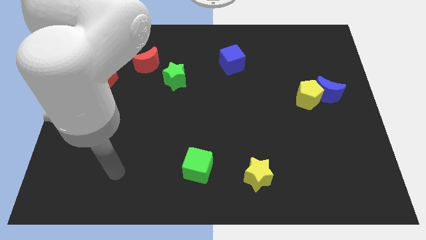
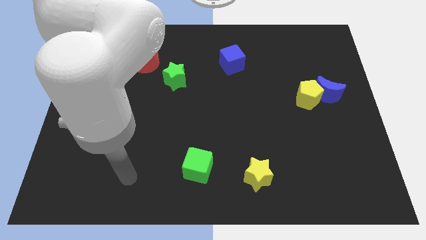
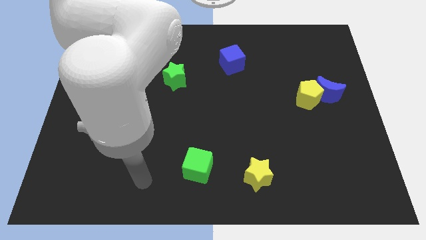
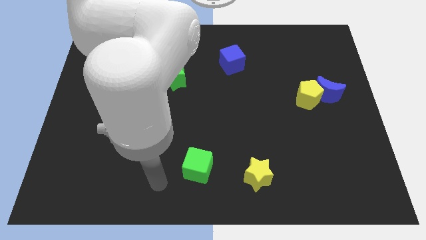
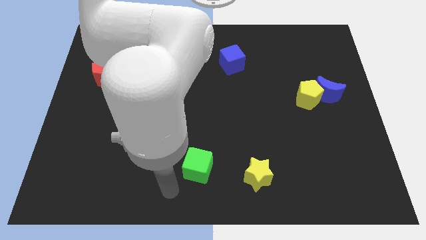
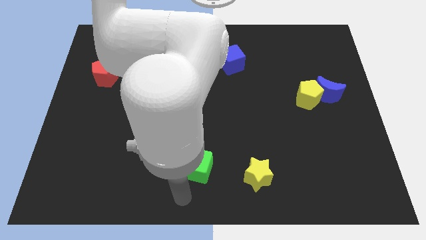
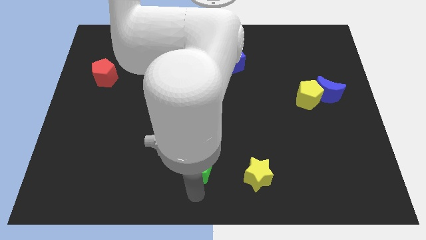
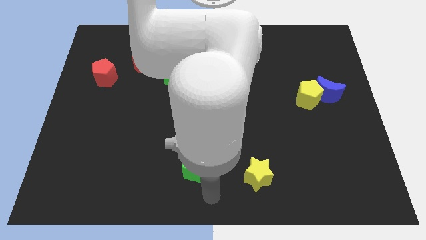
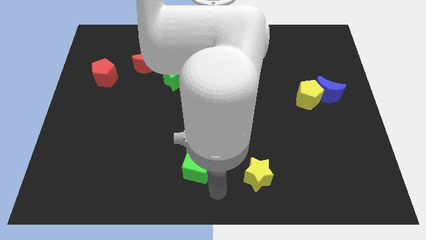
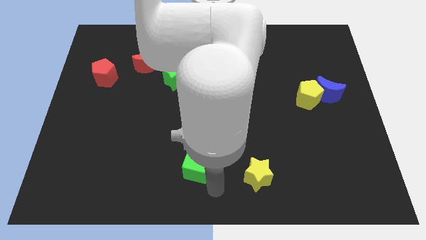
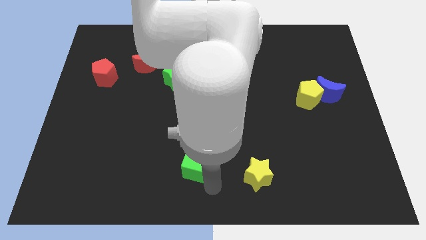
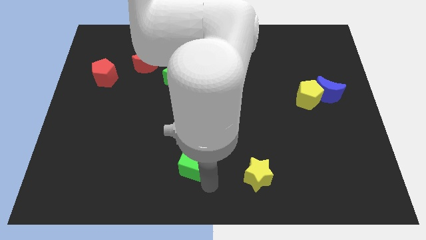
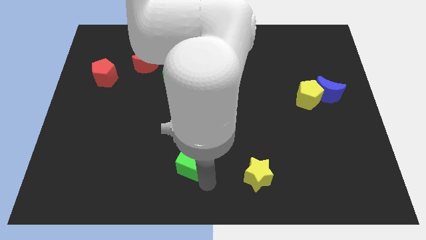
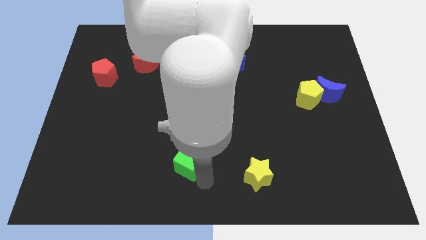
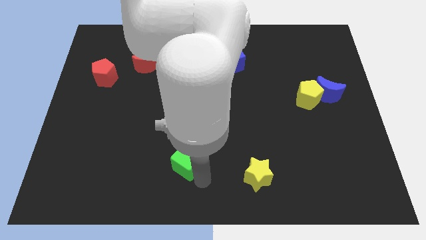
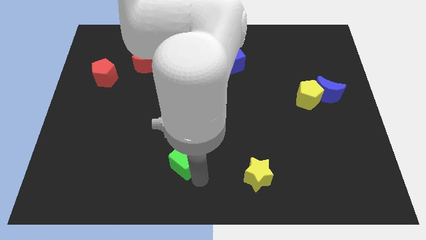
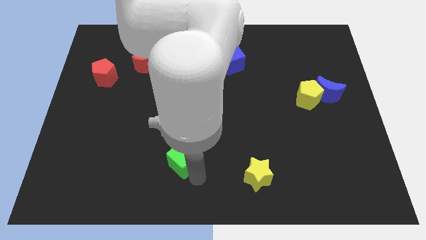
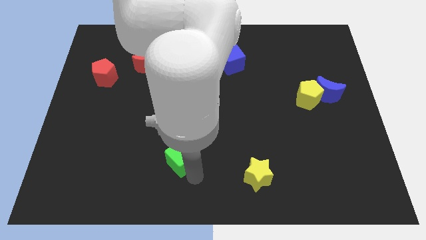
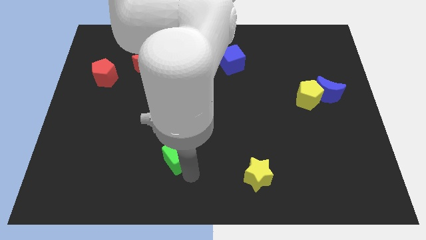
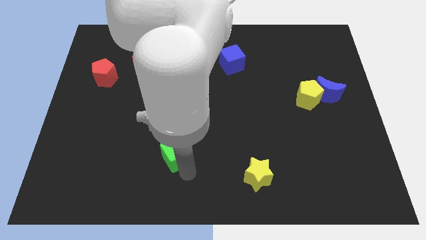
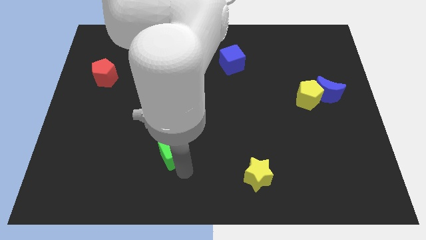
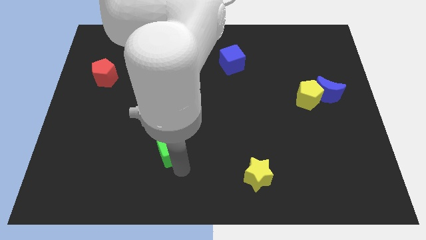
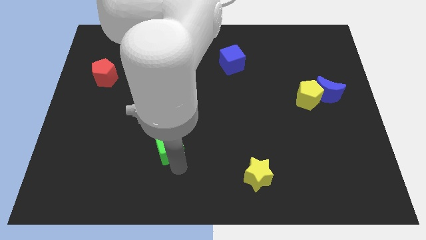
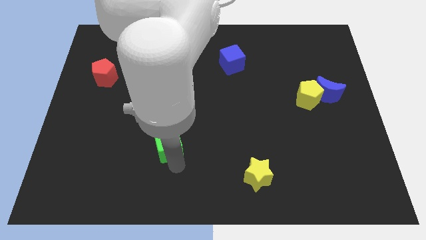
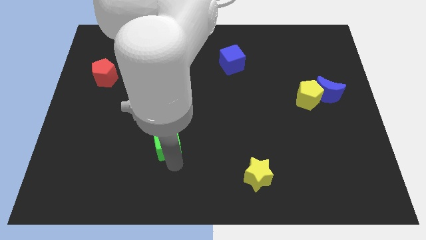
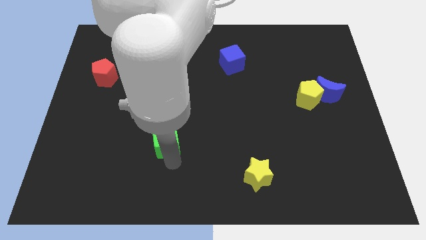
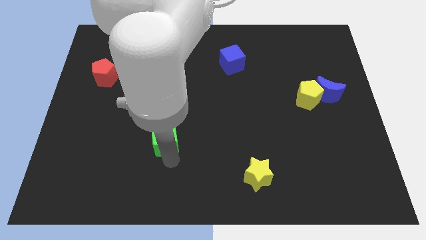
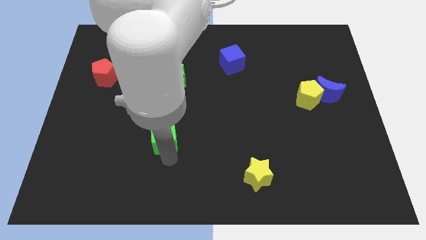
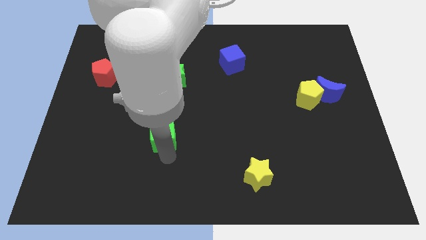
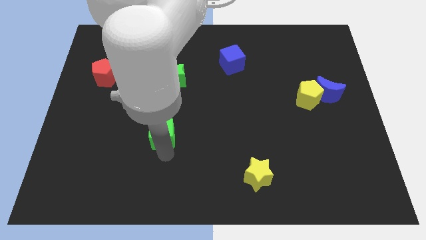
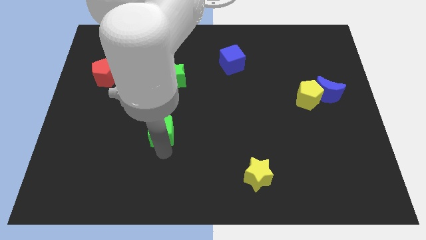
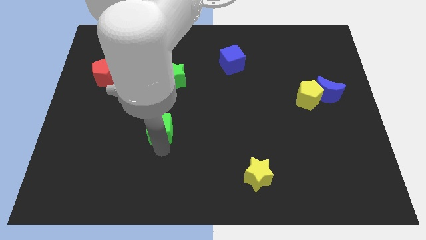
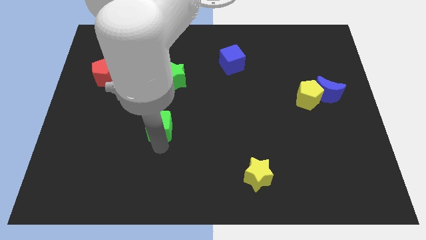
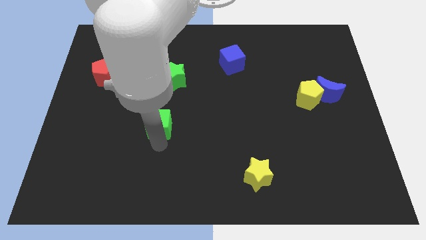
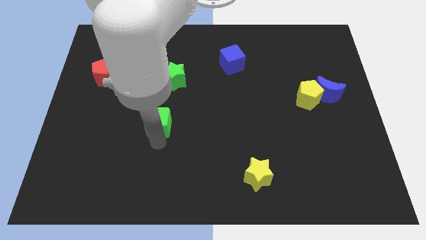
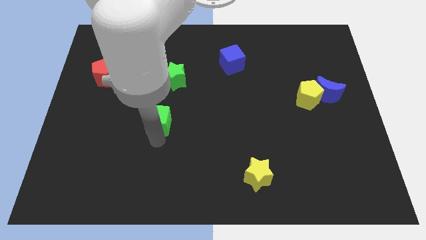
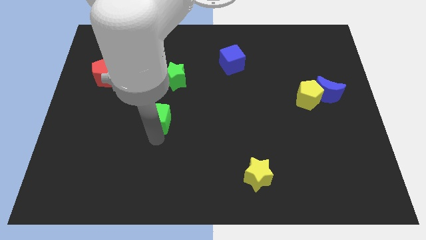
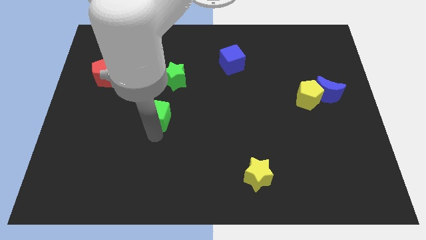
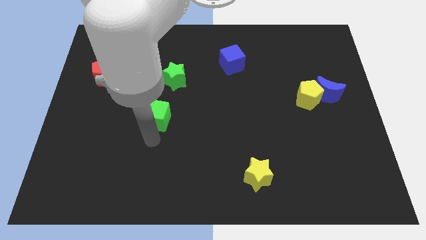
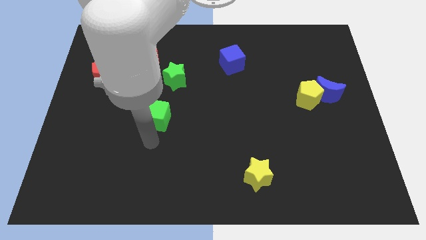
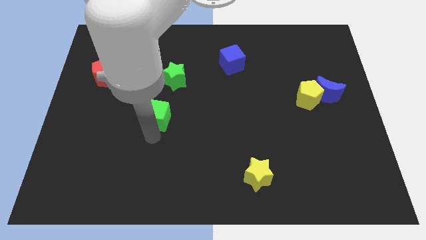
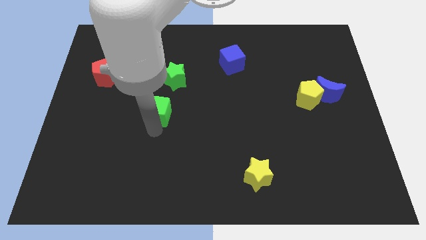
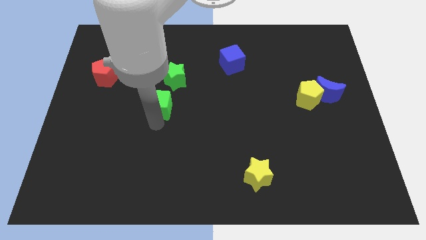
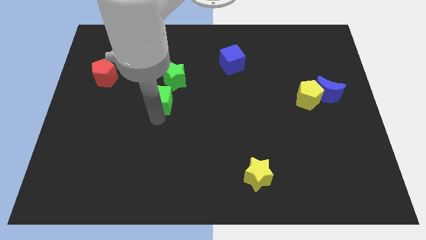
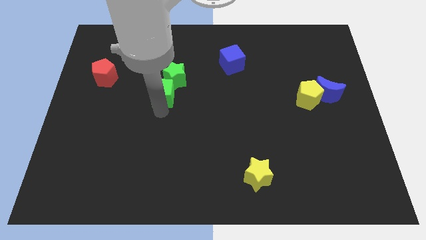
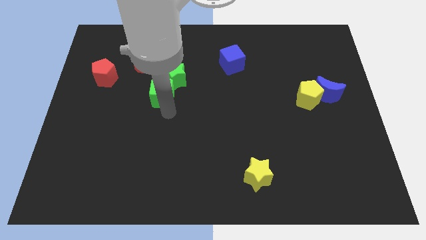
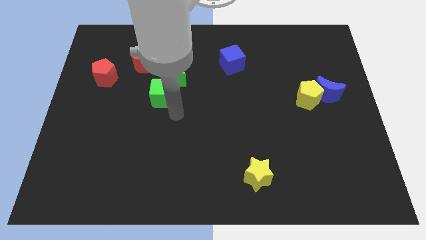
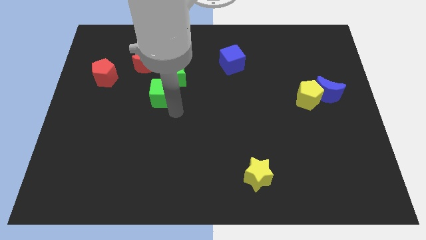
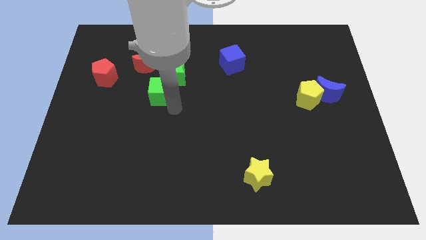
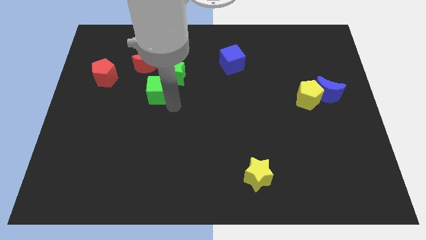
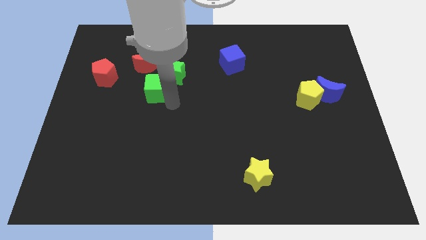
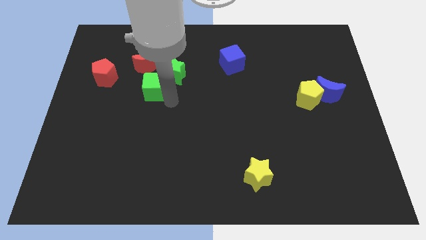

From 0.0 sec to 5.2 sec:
slide the green cube just right of the red pentagon

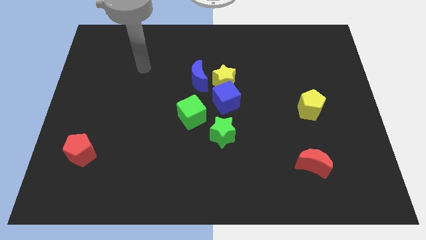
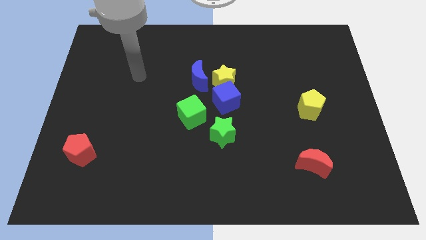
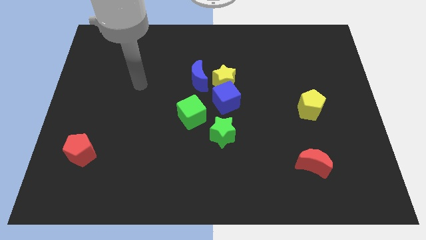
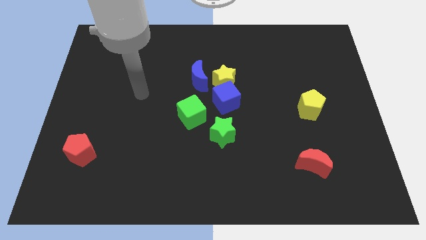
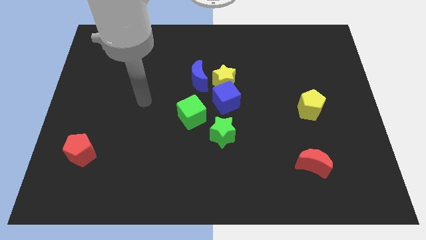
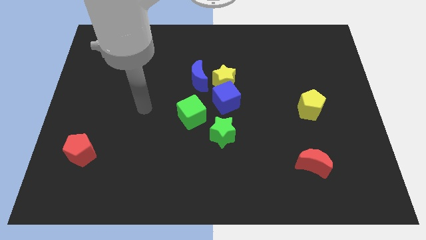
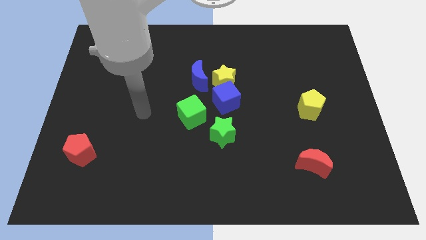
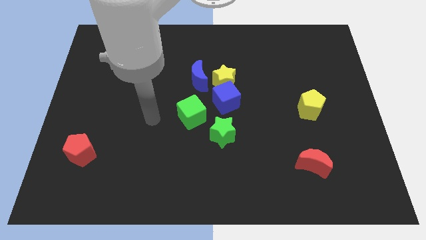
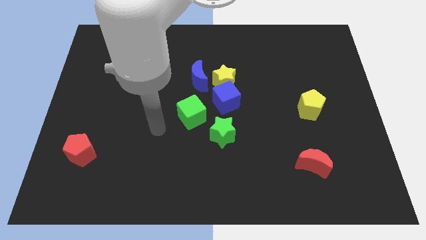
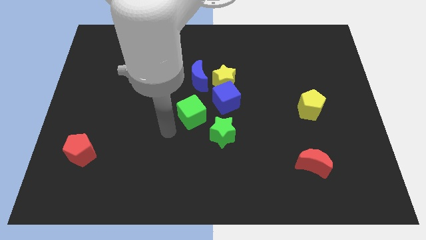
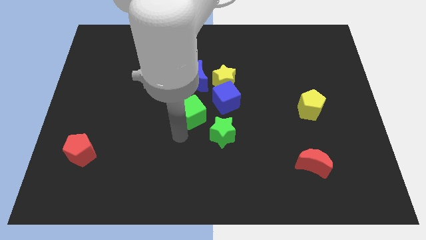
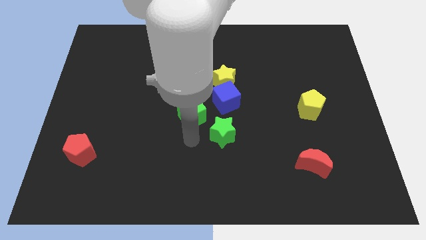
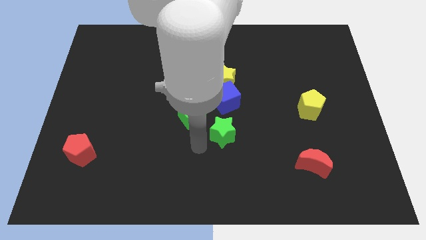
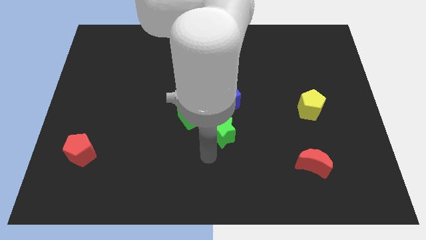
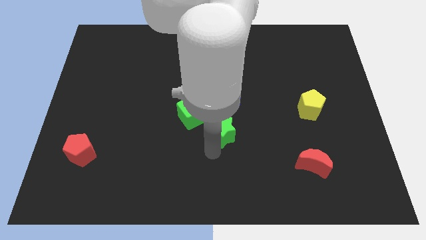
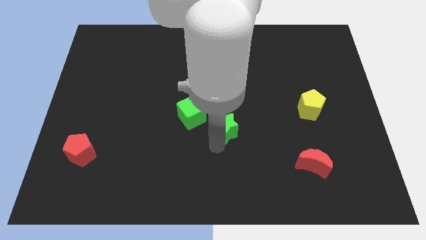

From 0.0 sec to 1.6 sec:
slide the green star to the right of the green cube
